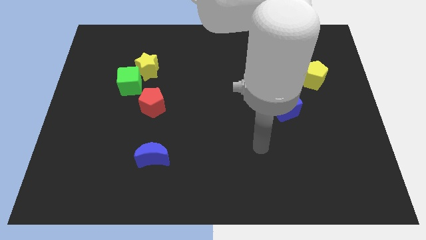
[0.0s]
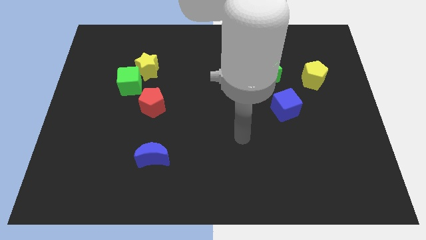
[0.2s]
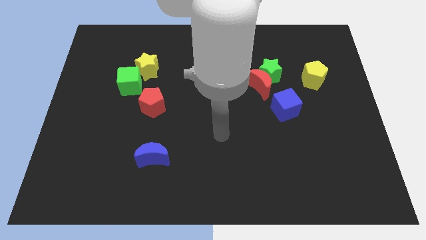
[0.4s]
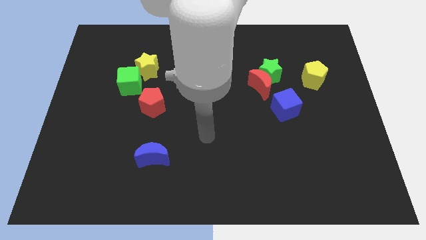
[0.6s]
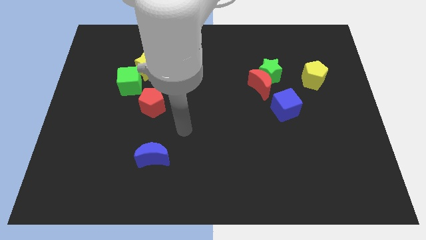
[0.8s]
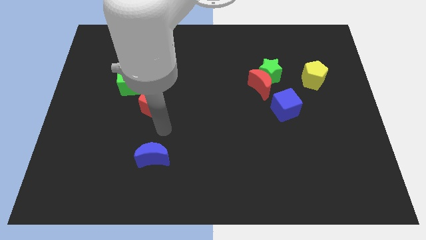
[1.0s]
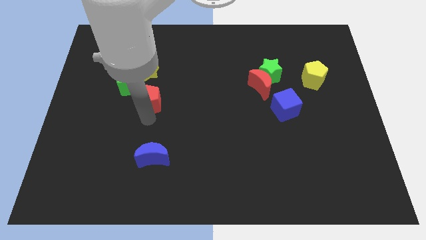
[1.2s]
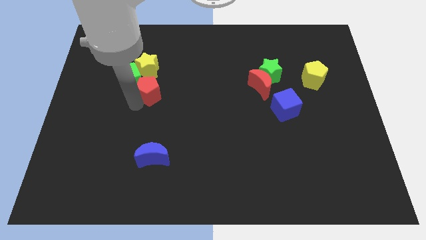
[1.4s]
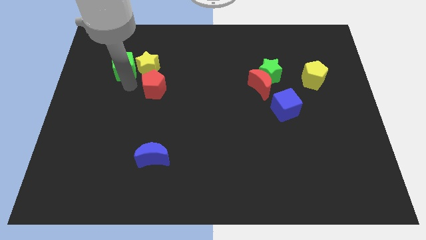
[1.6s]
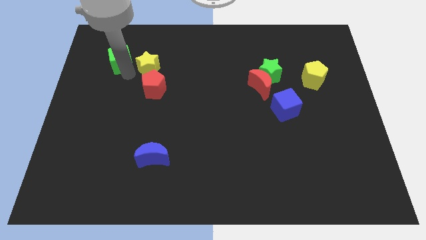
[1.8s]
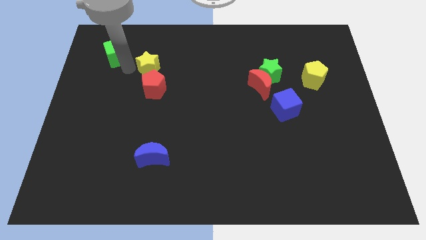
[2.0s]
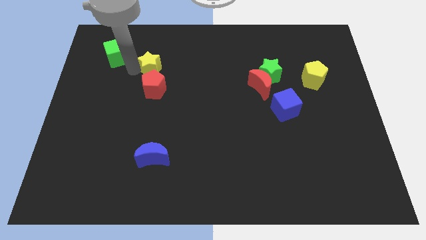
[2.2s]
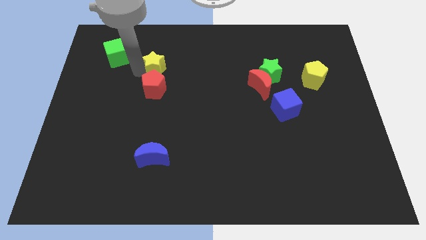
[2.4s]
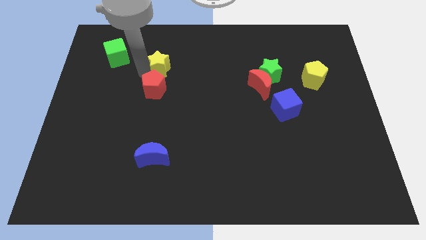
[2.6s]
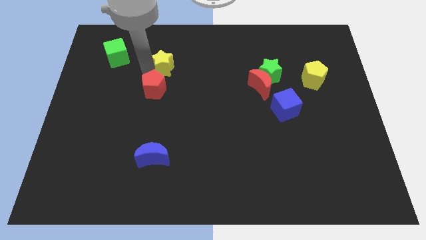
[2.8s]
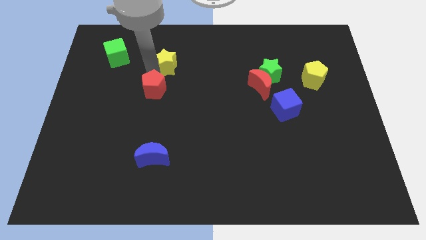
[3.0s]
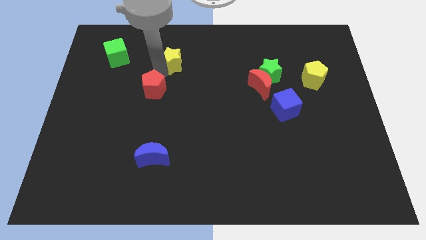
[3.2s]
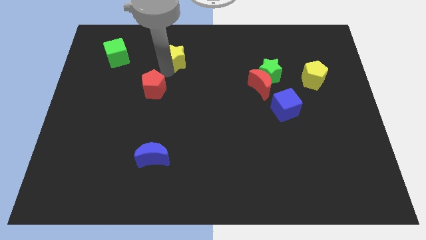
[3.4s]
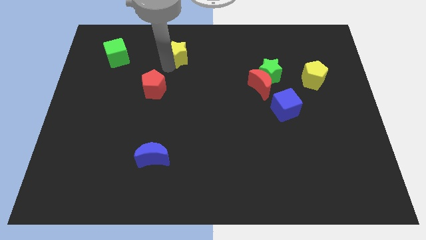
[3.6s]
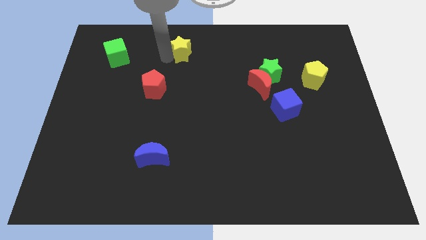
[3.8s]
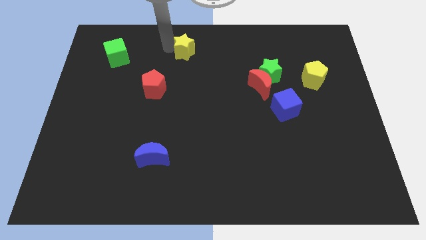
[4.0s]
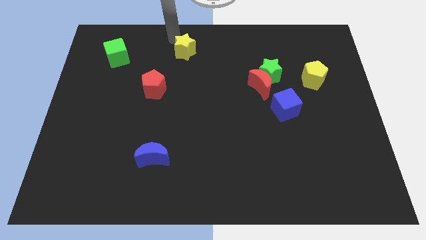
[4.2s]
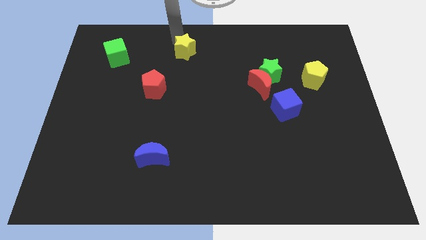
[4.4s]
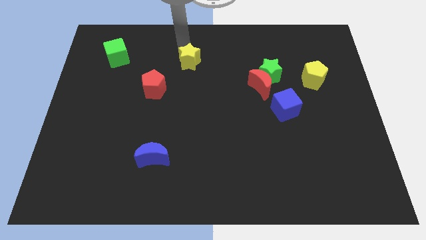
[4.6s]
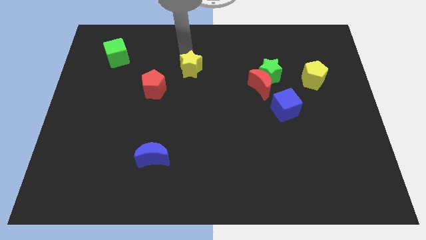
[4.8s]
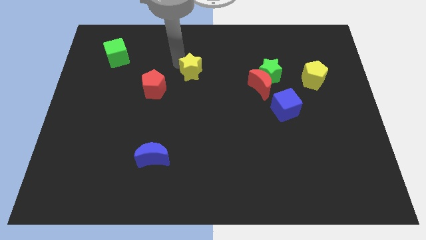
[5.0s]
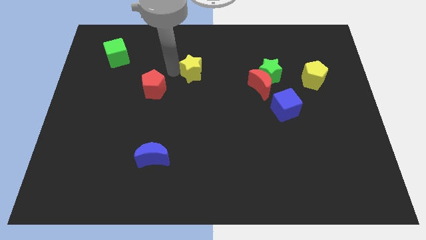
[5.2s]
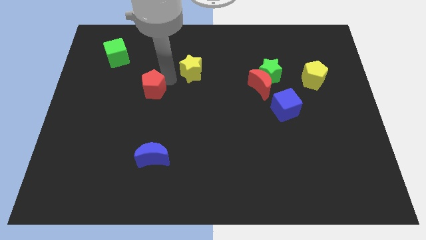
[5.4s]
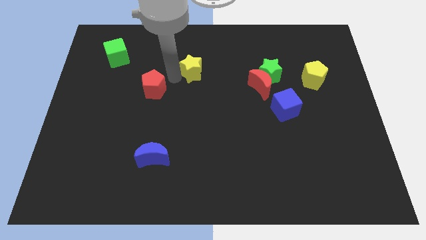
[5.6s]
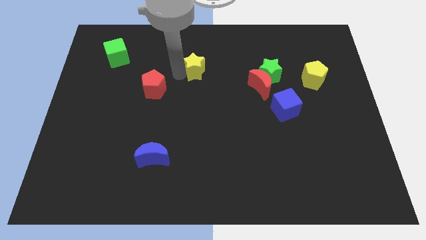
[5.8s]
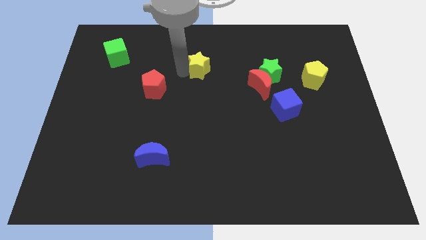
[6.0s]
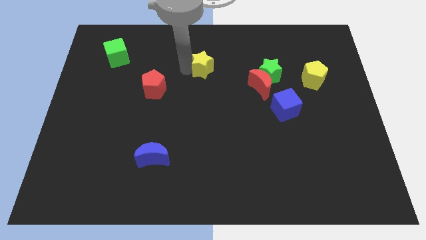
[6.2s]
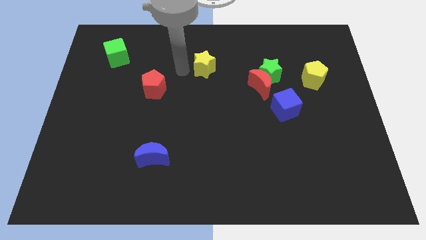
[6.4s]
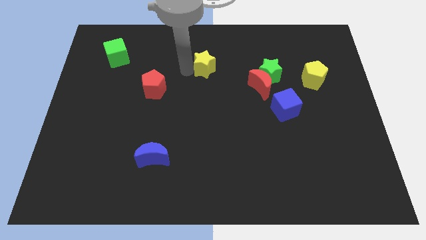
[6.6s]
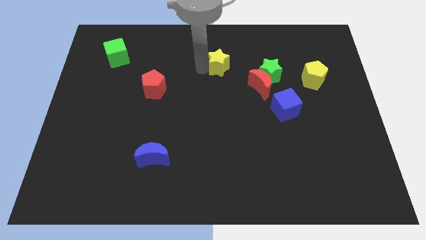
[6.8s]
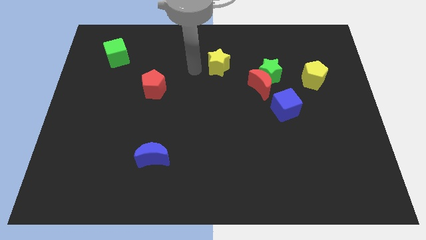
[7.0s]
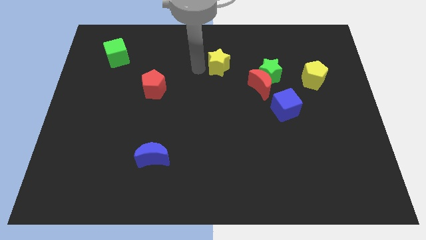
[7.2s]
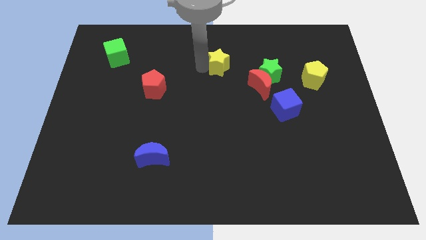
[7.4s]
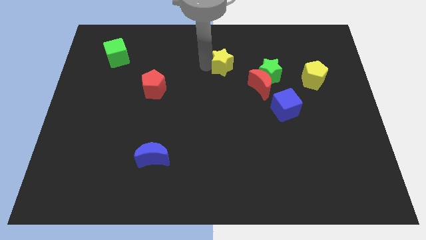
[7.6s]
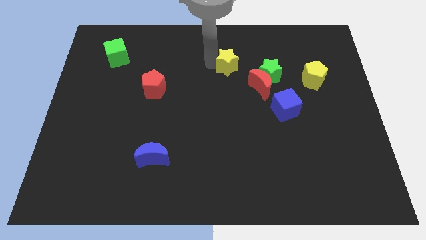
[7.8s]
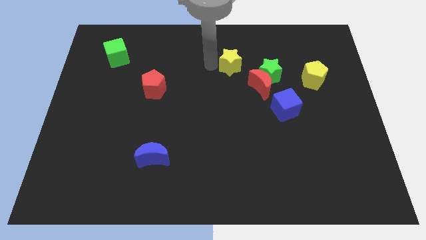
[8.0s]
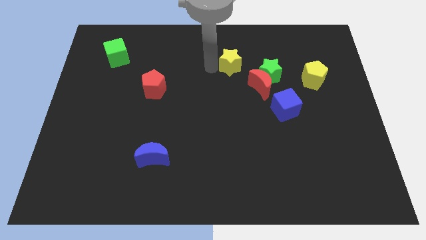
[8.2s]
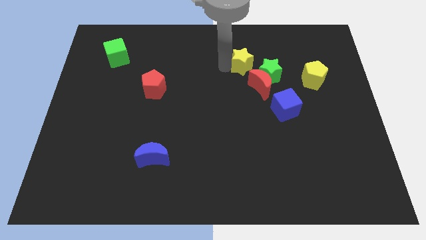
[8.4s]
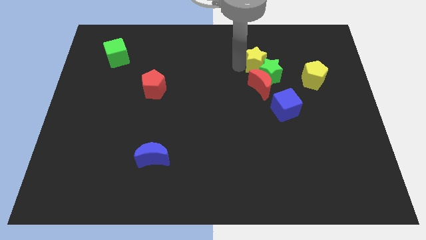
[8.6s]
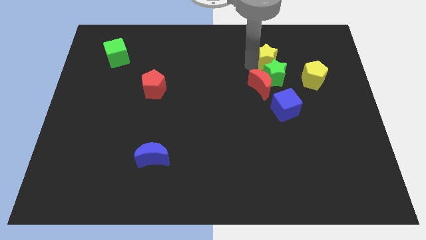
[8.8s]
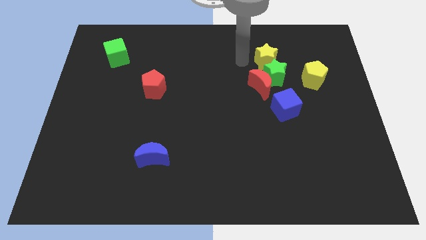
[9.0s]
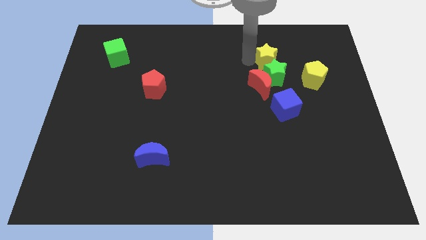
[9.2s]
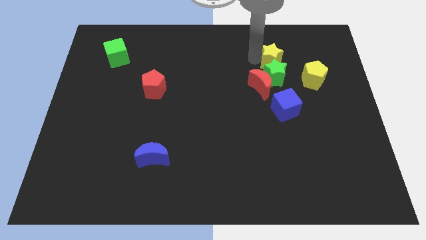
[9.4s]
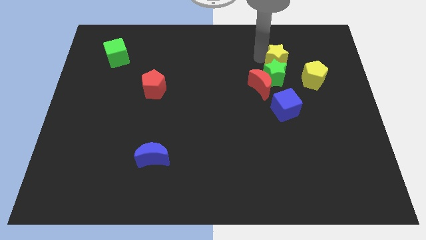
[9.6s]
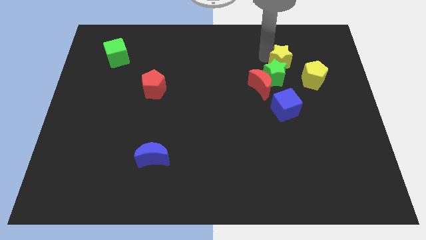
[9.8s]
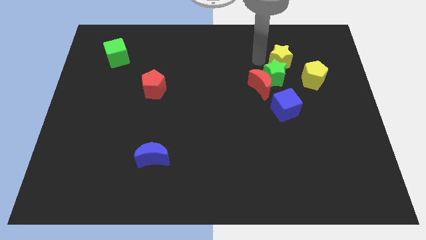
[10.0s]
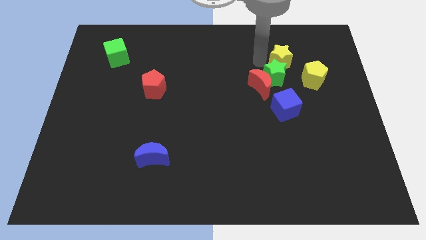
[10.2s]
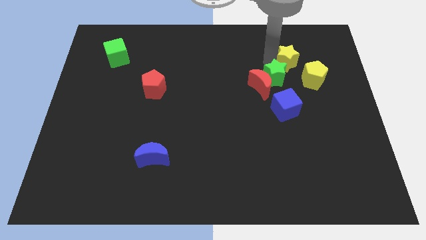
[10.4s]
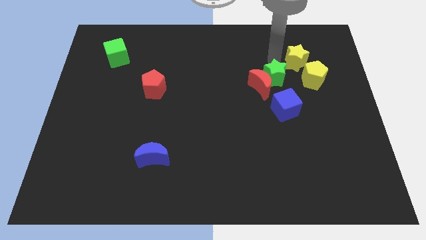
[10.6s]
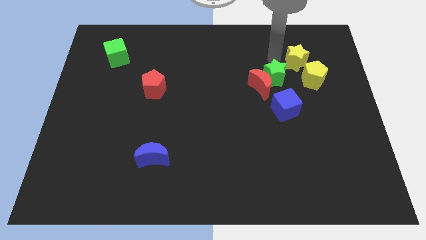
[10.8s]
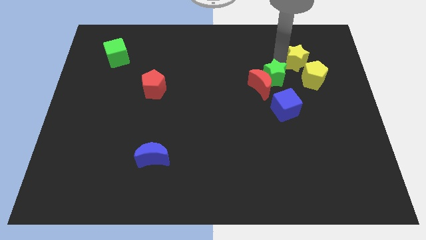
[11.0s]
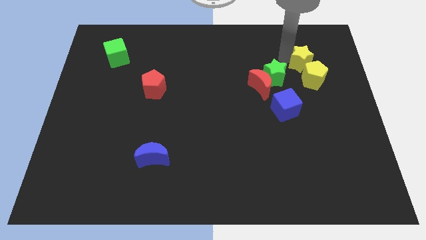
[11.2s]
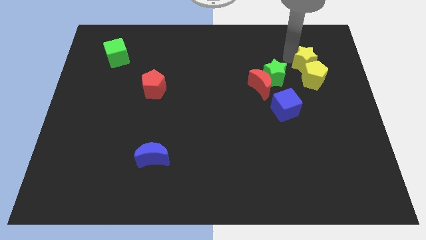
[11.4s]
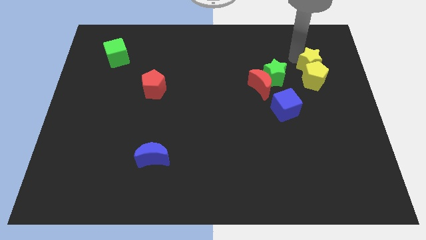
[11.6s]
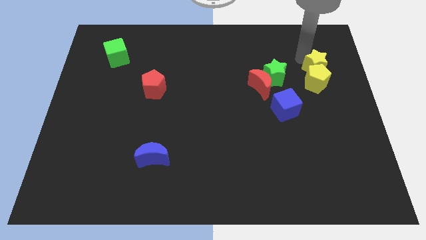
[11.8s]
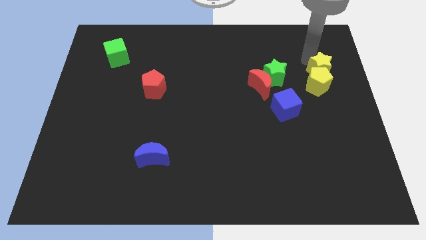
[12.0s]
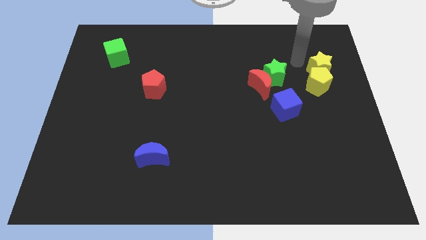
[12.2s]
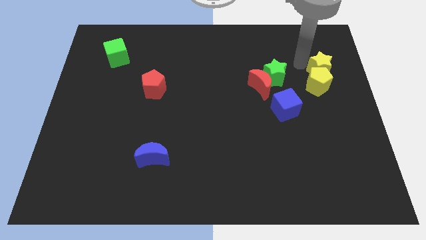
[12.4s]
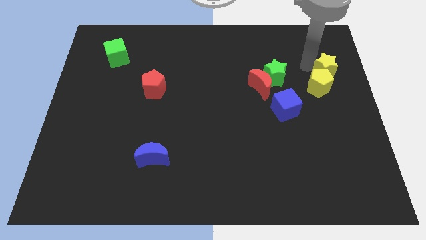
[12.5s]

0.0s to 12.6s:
push the yellow star to the right side of the board
